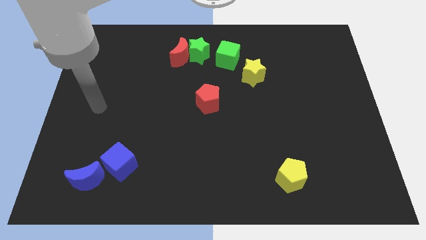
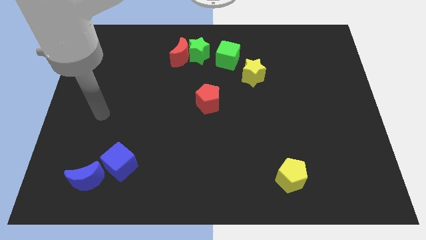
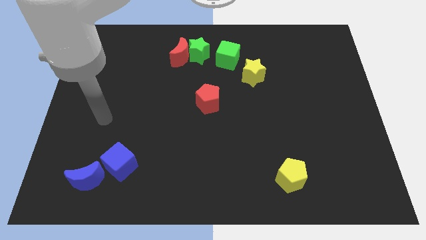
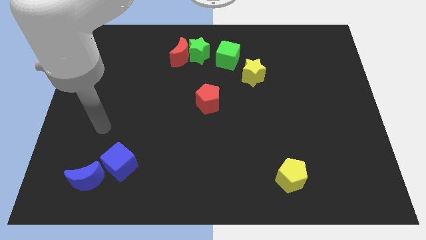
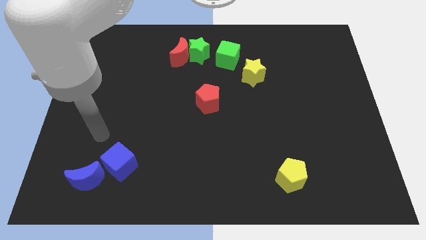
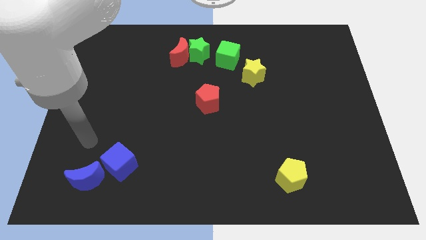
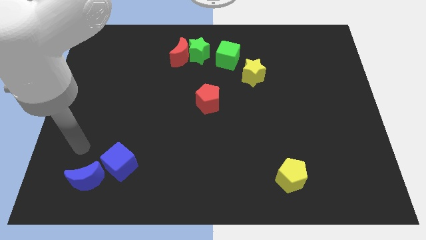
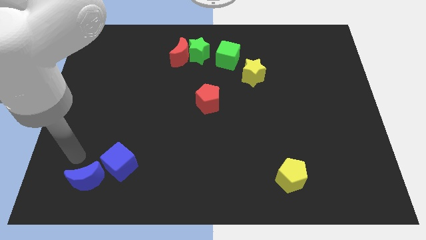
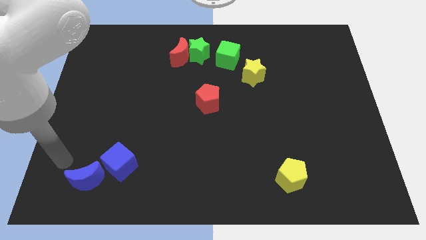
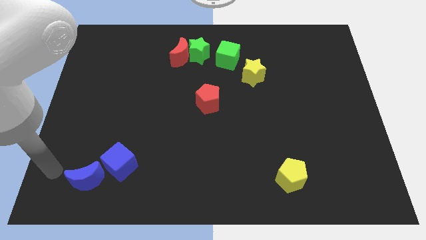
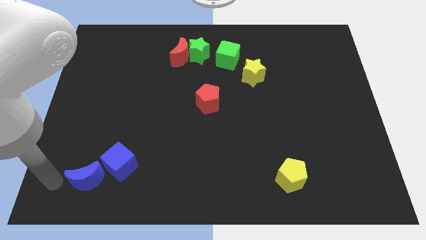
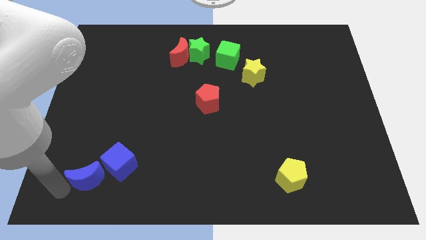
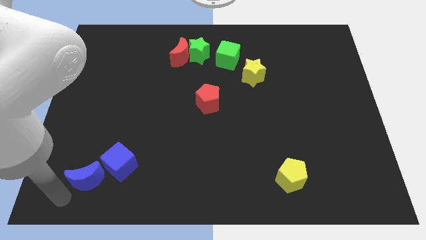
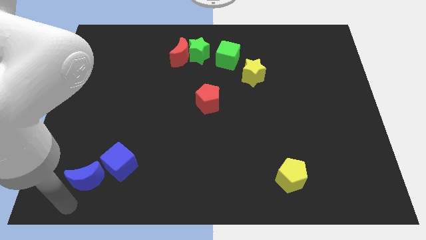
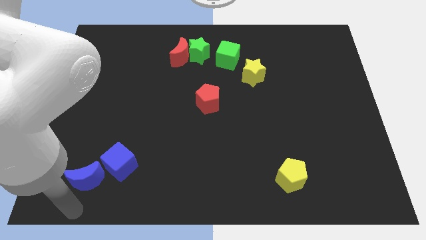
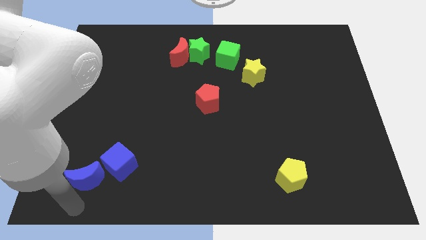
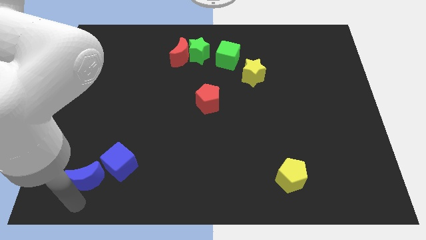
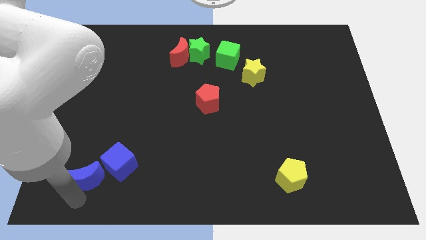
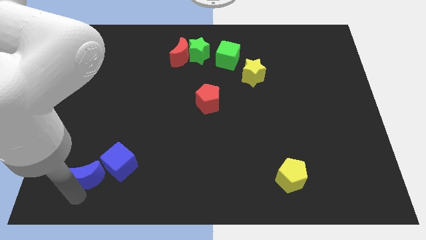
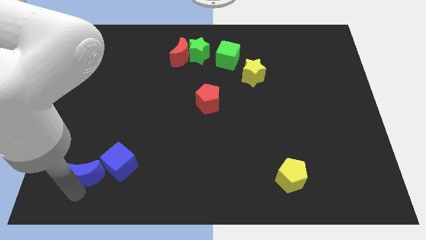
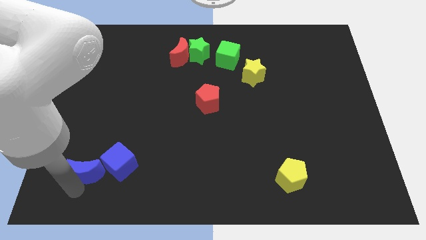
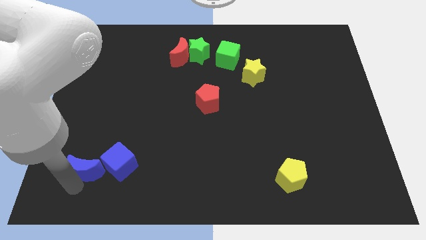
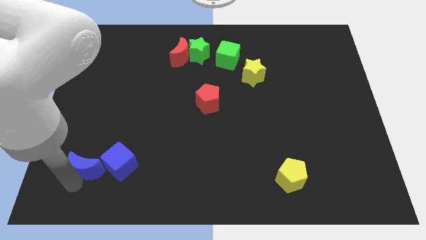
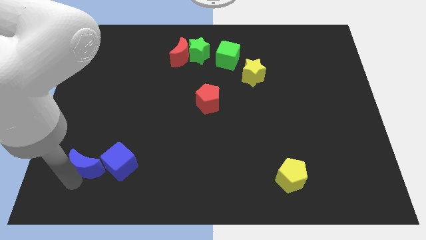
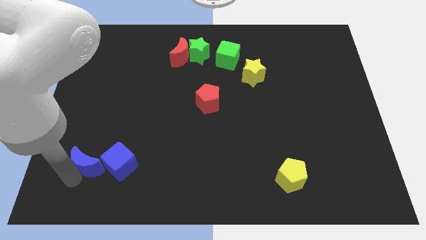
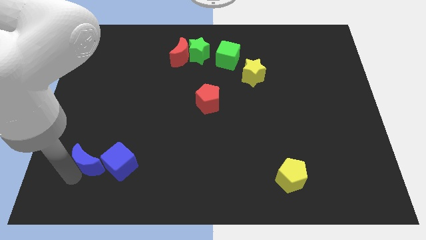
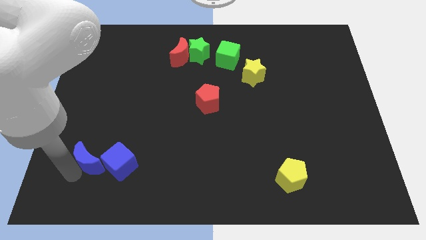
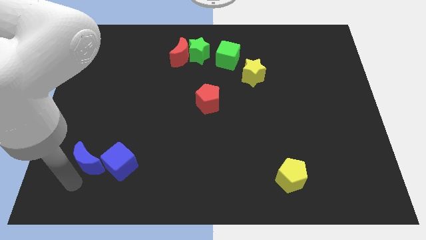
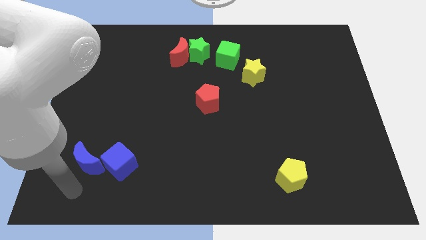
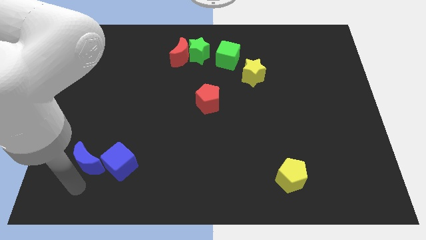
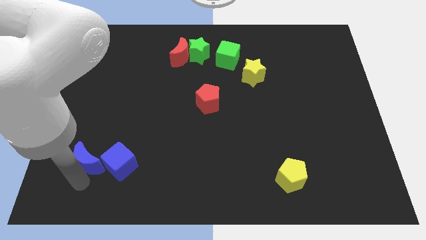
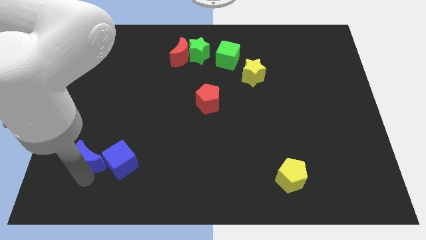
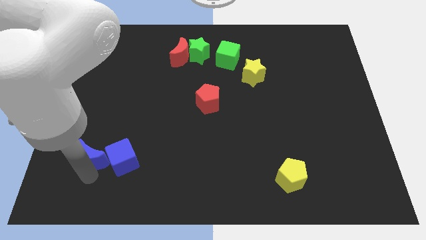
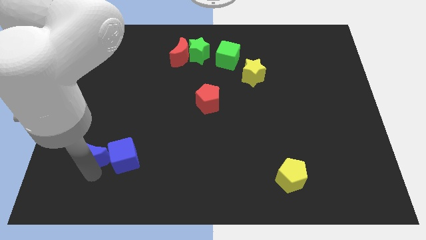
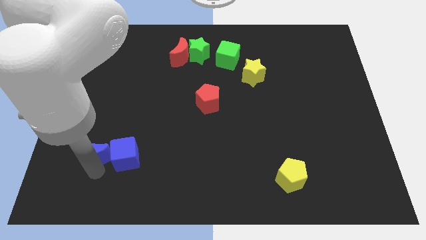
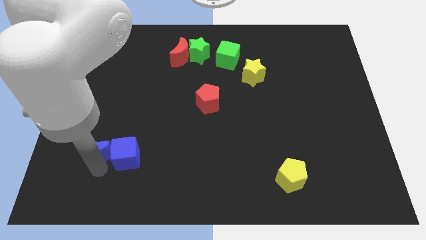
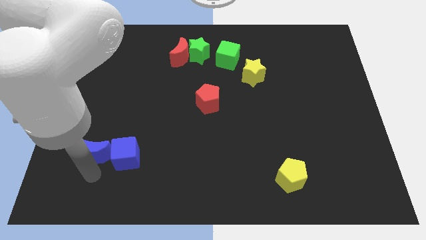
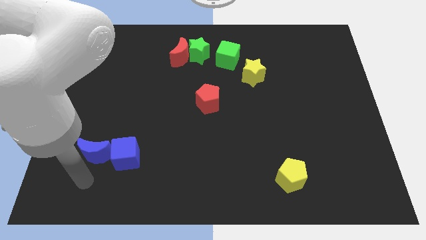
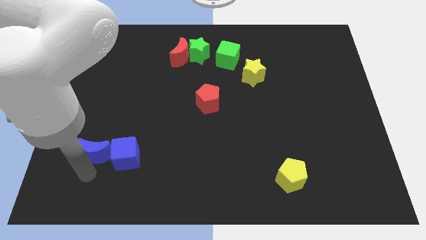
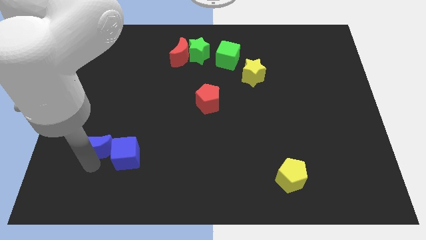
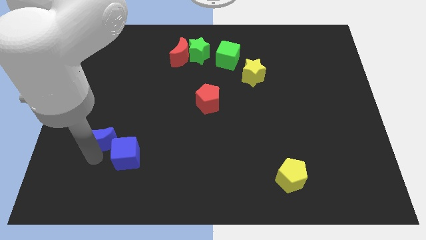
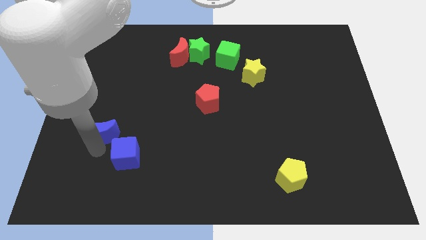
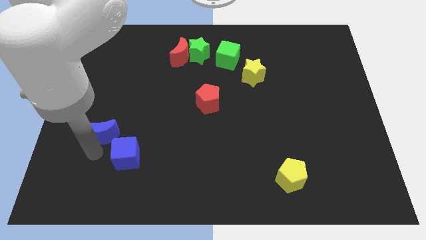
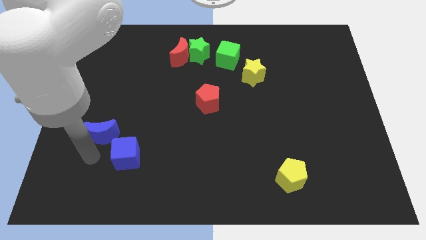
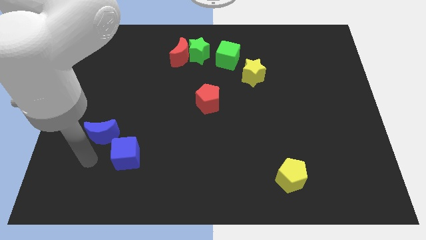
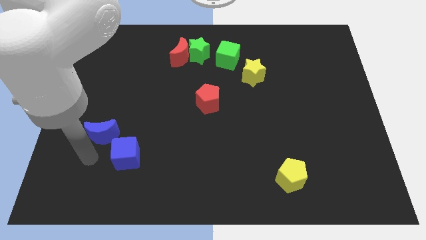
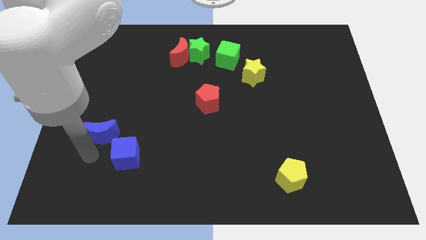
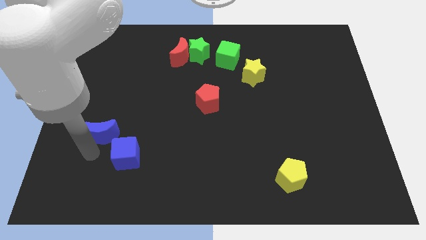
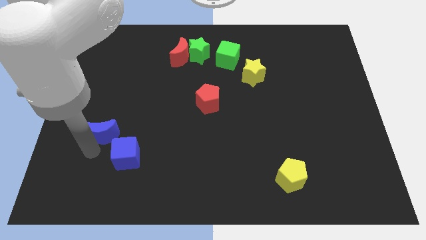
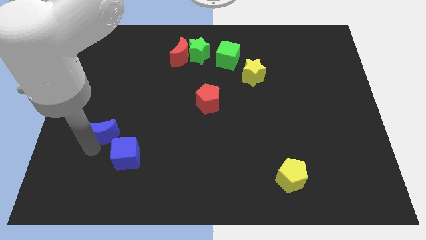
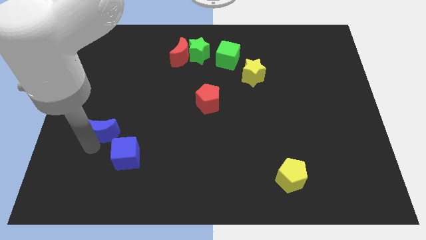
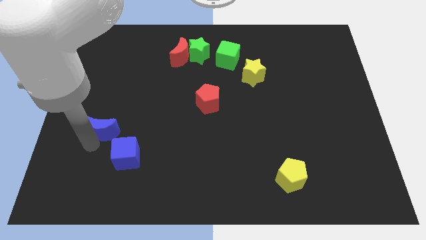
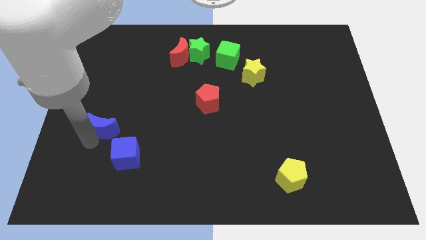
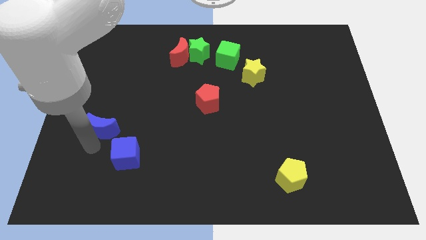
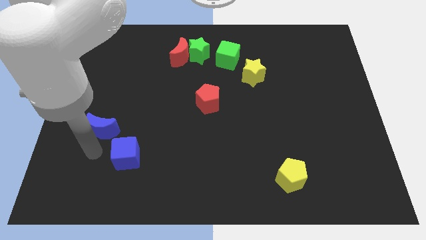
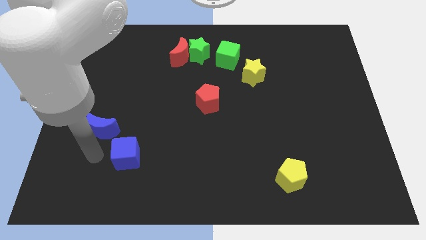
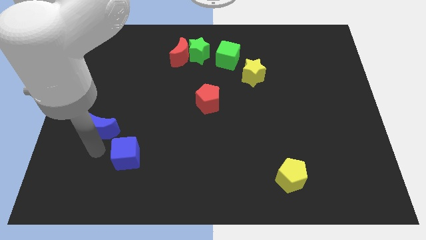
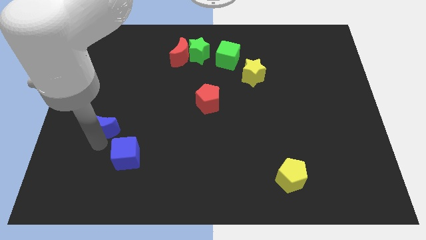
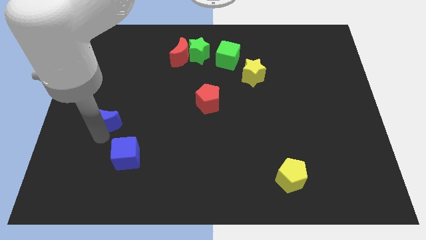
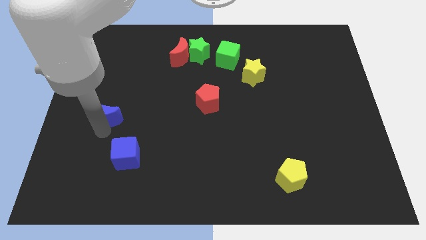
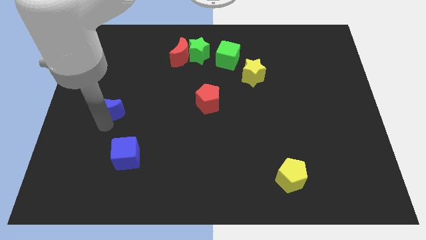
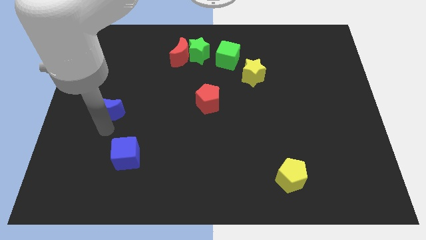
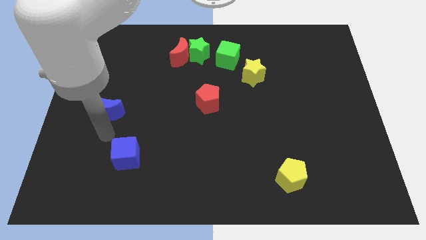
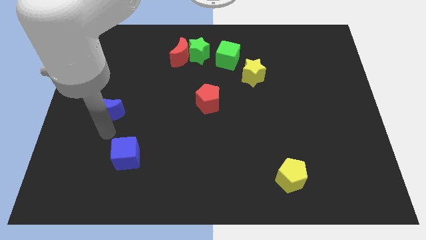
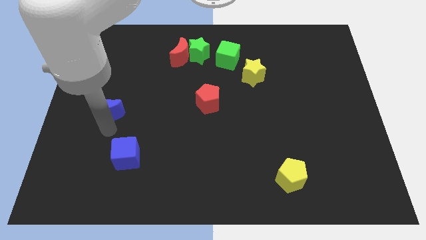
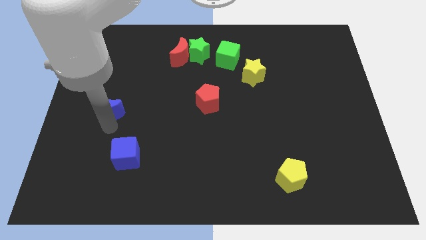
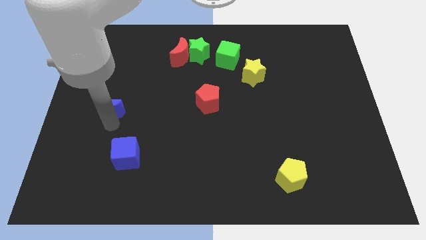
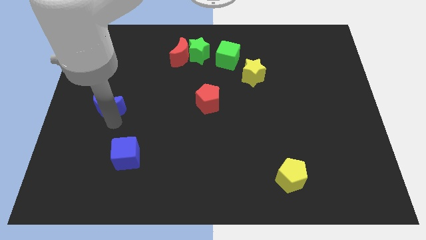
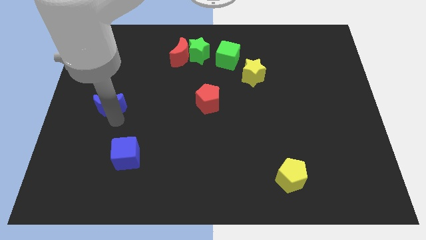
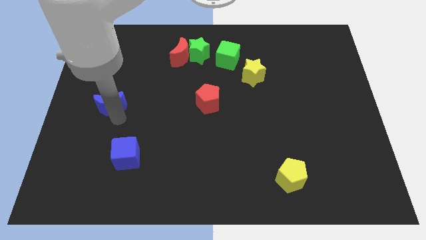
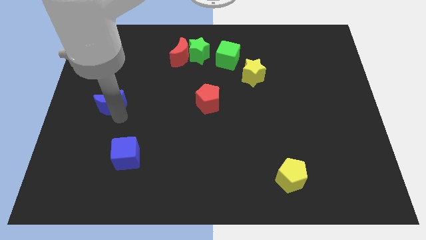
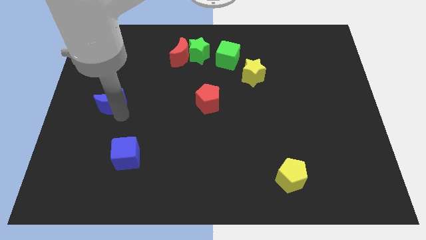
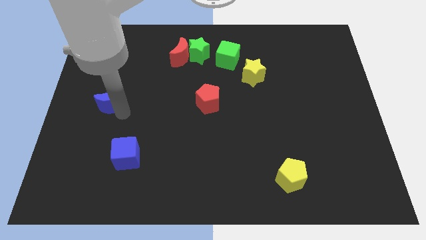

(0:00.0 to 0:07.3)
move the blue moon up

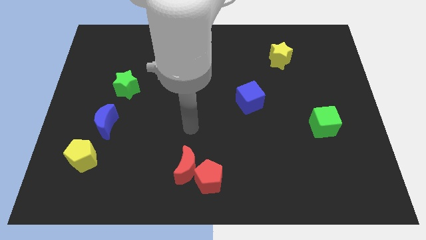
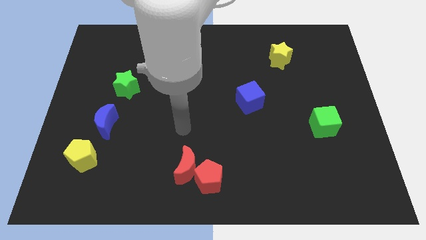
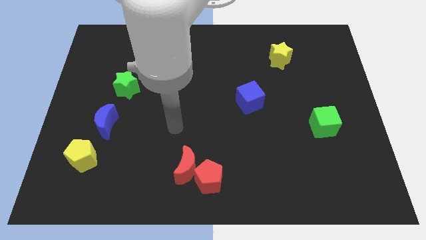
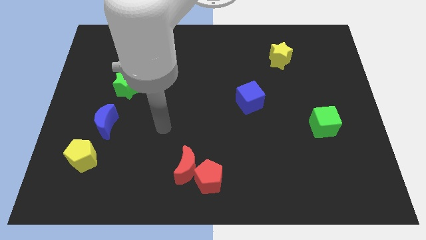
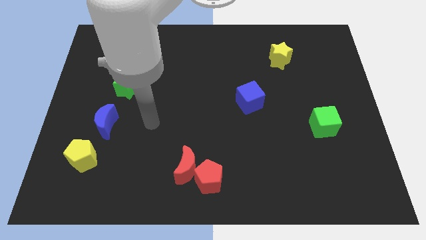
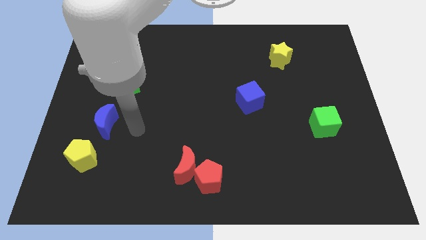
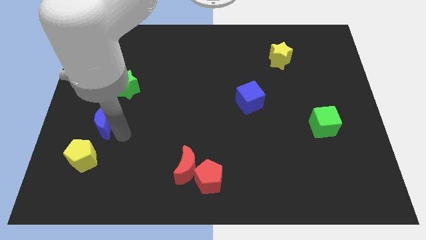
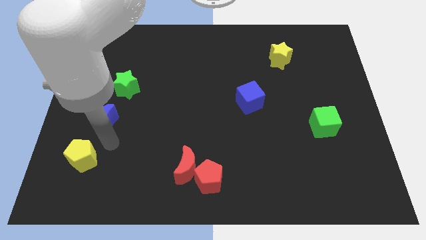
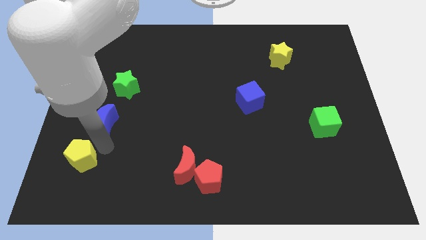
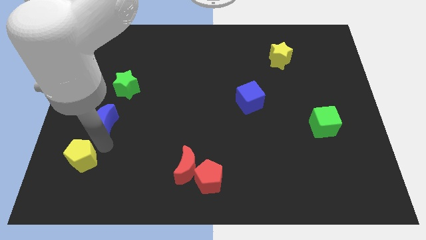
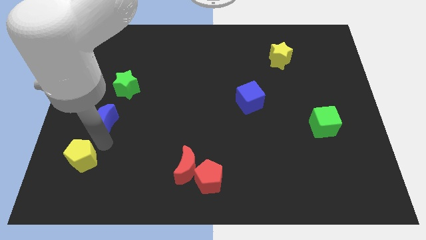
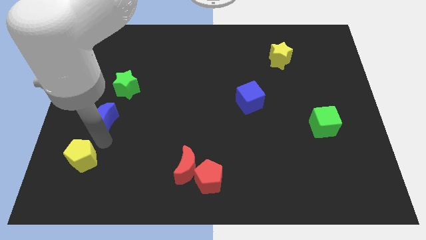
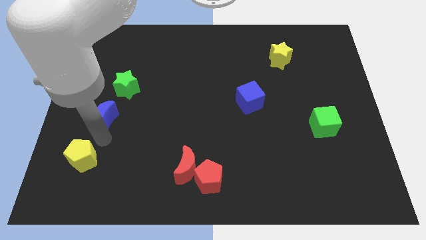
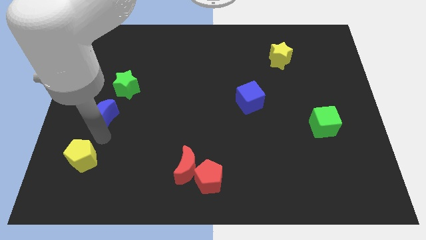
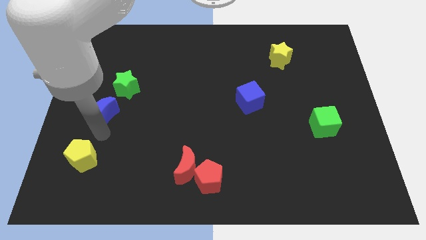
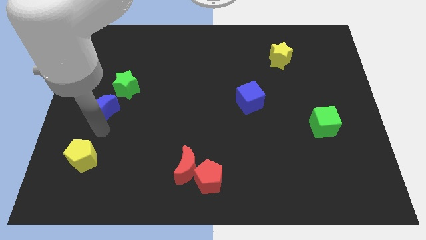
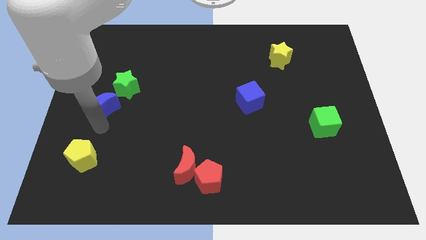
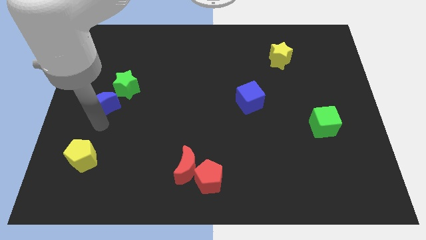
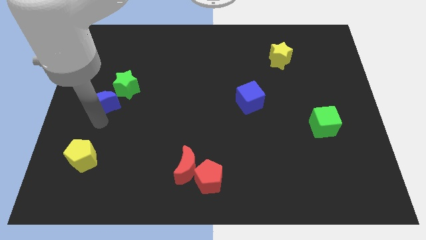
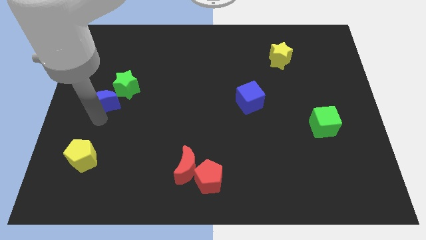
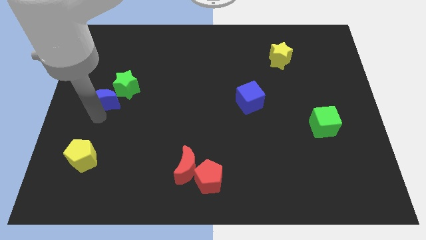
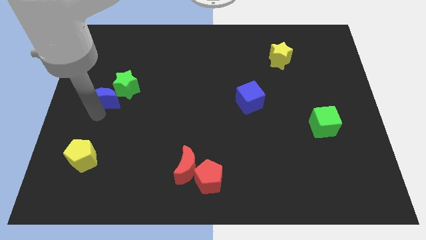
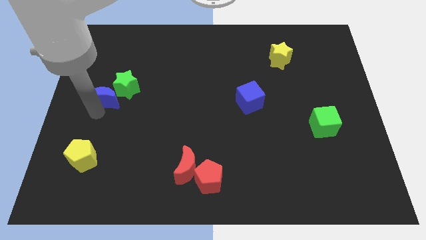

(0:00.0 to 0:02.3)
slide the blue moon a little bit up
